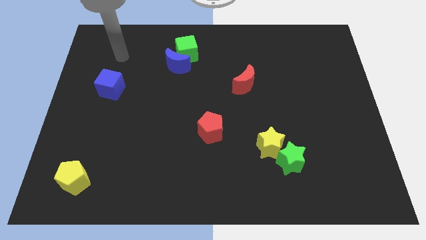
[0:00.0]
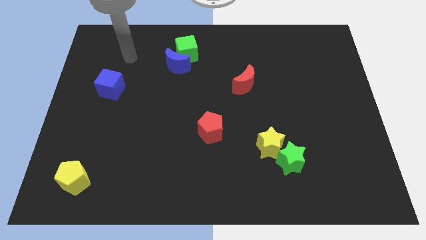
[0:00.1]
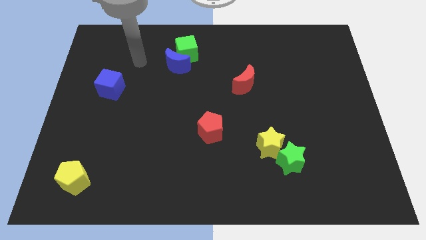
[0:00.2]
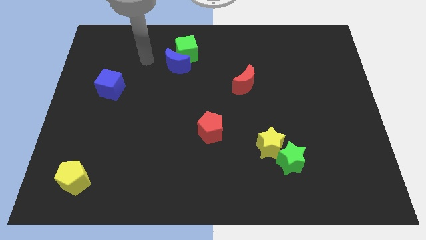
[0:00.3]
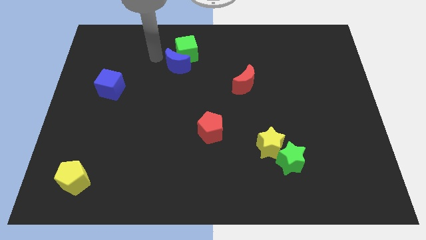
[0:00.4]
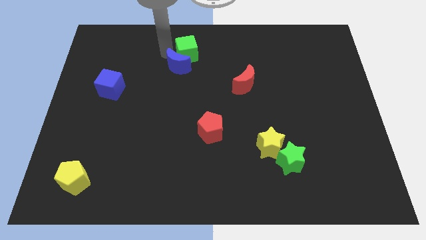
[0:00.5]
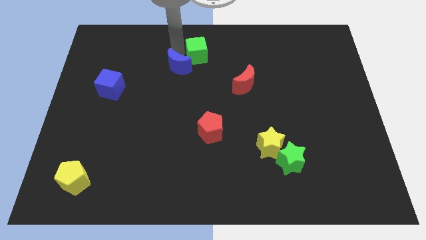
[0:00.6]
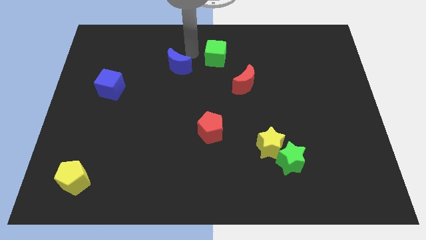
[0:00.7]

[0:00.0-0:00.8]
pull the blue moon apart from the green cube

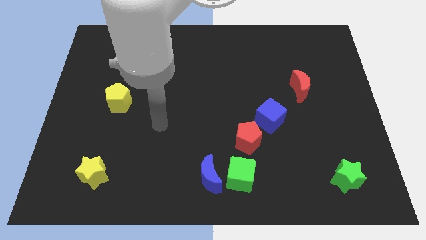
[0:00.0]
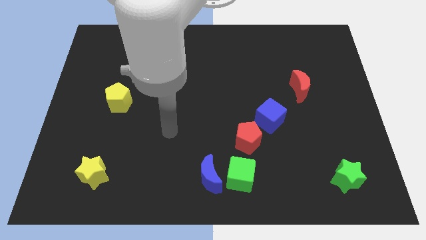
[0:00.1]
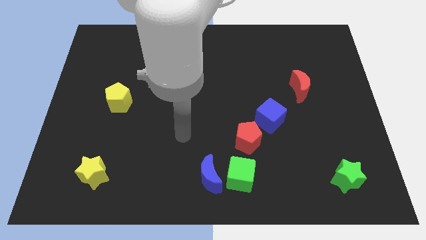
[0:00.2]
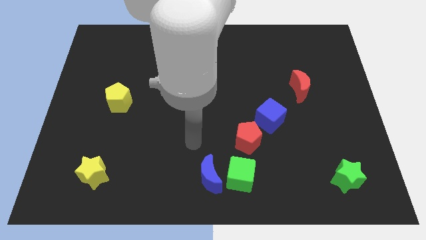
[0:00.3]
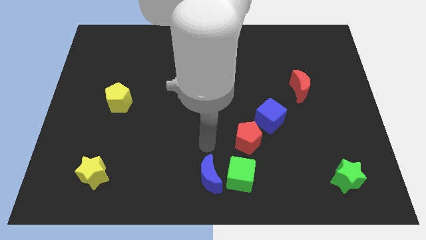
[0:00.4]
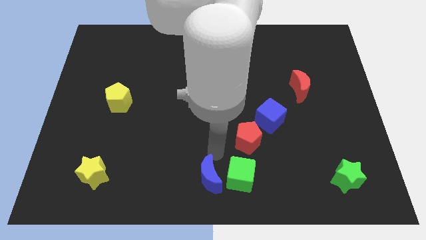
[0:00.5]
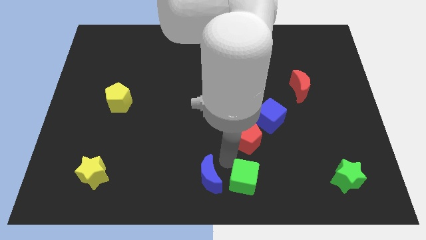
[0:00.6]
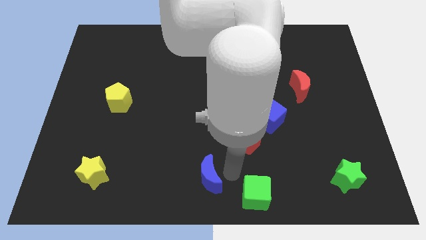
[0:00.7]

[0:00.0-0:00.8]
separate the blue moon from the green cube

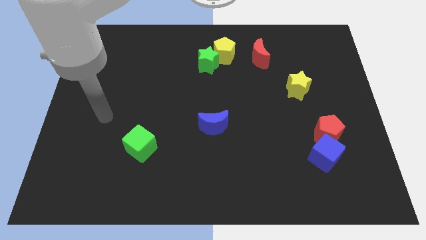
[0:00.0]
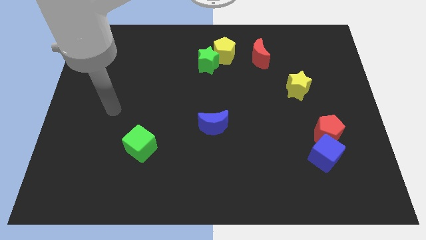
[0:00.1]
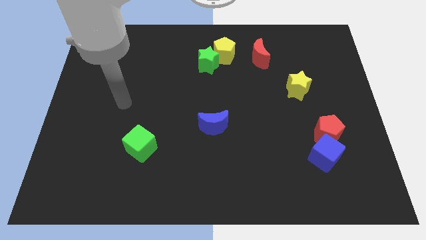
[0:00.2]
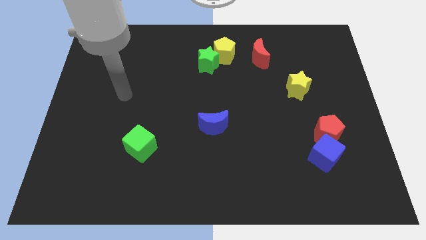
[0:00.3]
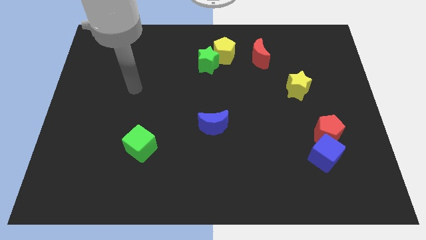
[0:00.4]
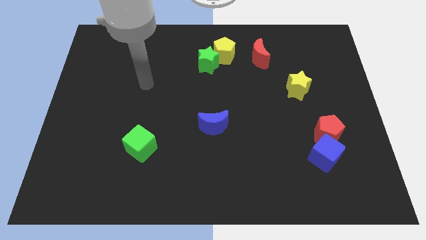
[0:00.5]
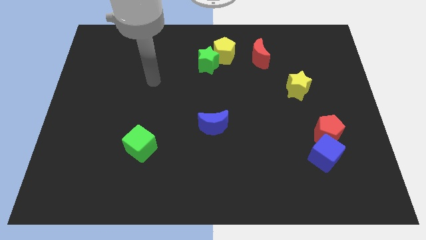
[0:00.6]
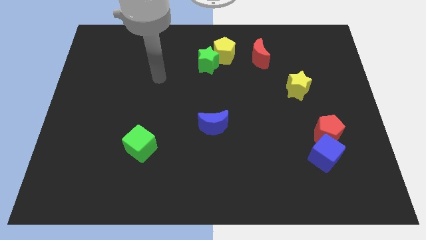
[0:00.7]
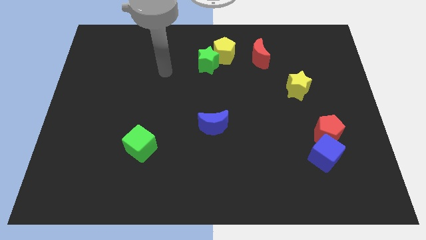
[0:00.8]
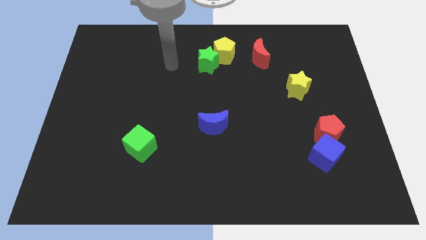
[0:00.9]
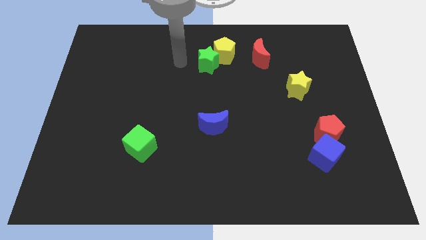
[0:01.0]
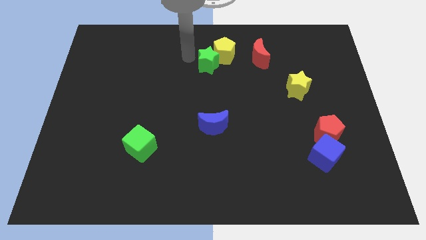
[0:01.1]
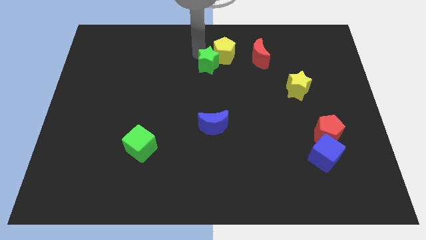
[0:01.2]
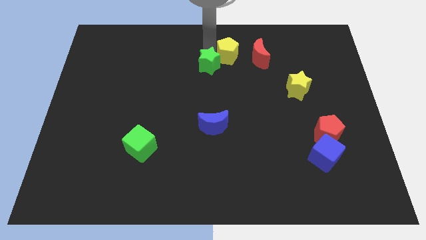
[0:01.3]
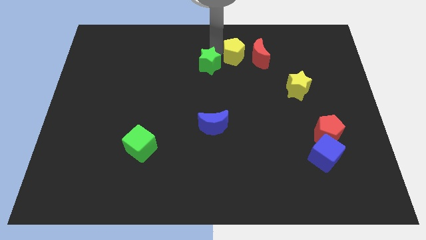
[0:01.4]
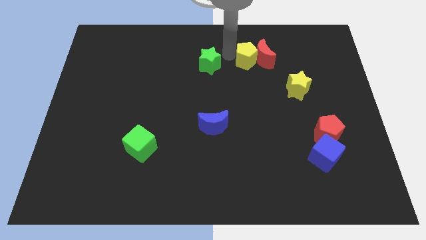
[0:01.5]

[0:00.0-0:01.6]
pull the green star apart from the yellow pentagon

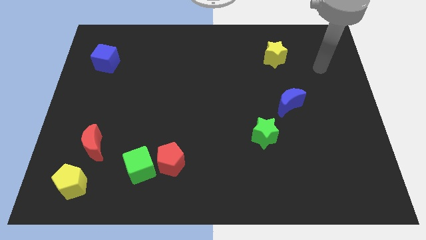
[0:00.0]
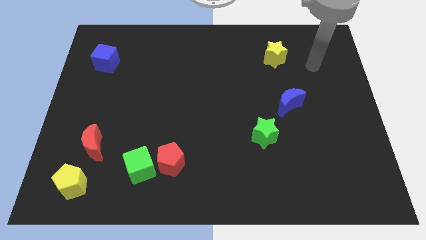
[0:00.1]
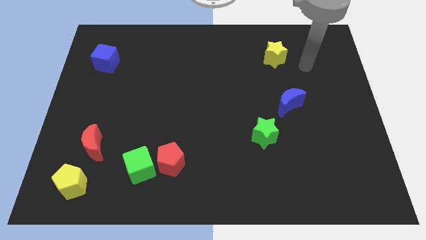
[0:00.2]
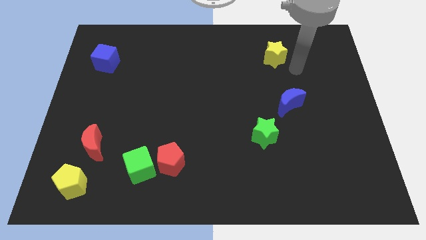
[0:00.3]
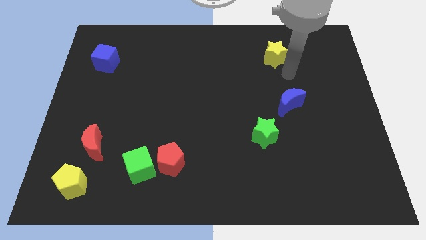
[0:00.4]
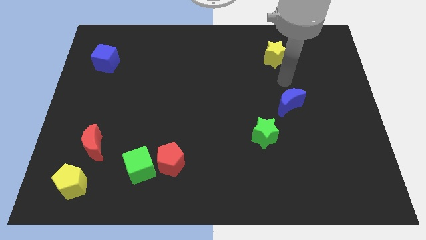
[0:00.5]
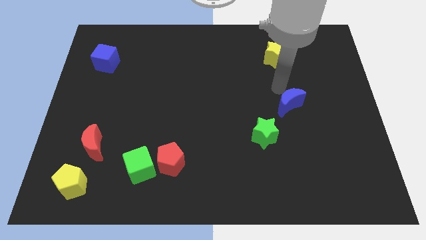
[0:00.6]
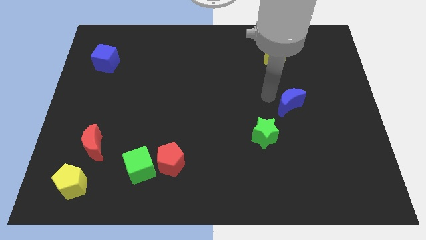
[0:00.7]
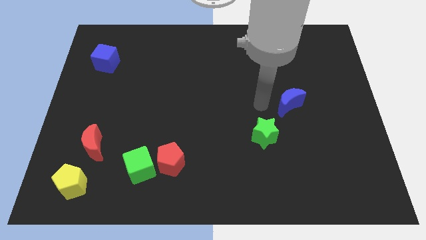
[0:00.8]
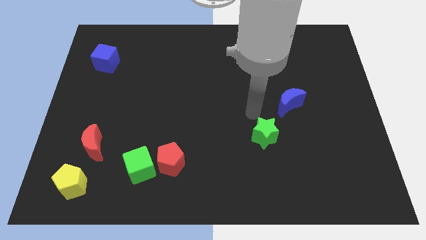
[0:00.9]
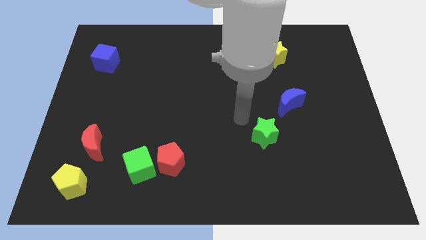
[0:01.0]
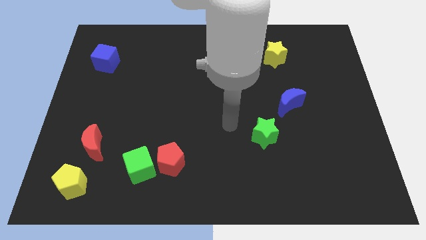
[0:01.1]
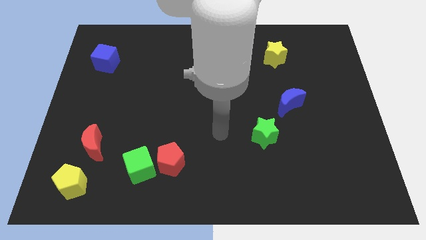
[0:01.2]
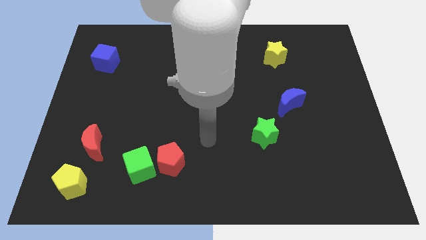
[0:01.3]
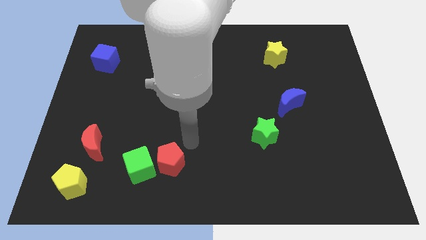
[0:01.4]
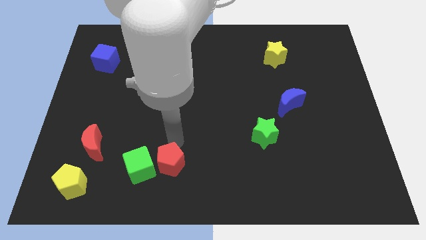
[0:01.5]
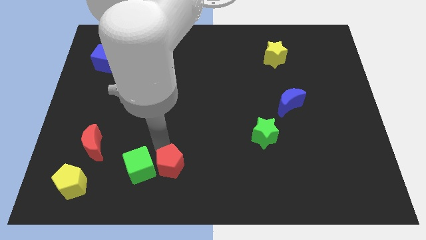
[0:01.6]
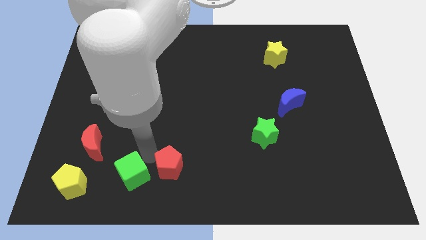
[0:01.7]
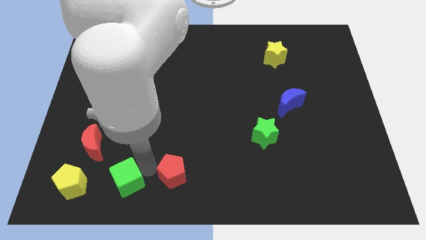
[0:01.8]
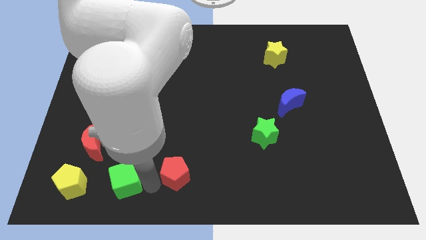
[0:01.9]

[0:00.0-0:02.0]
pull the red pentagon apart from the green cube

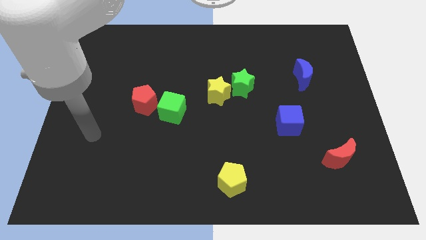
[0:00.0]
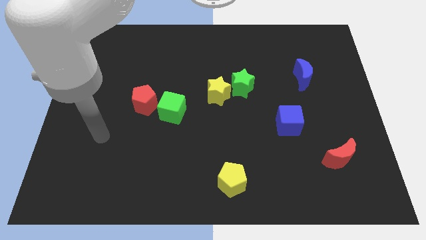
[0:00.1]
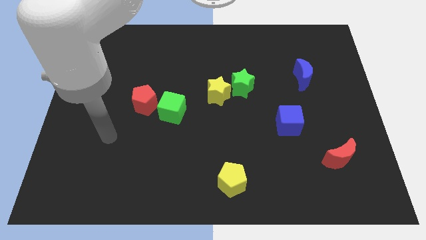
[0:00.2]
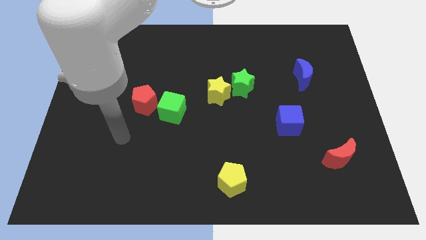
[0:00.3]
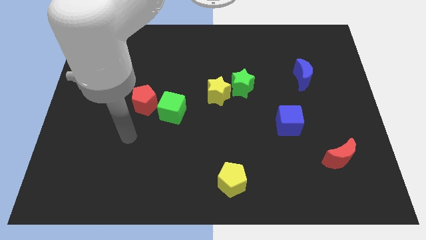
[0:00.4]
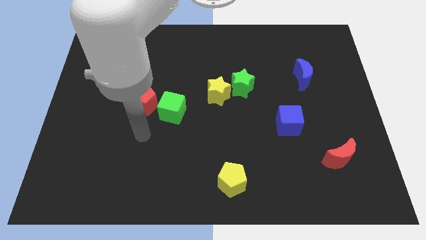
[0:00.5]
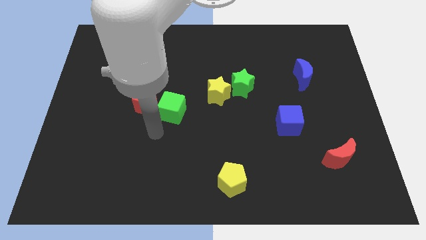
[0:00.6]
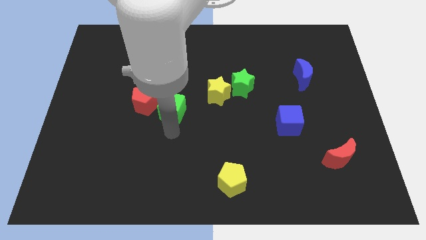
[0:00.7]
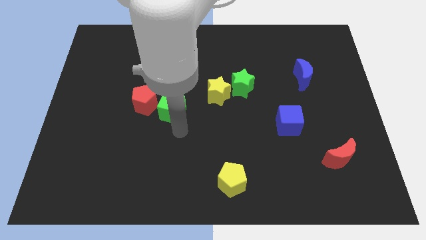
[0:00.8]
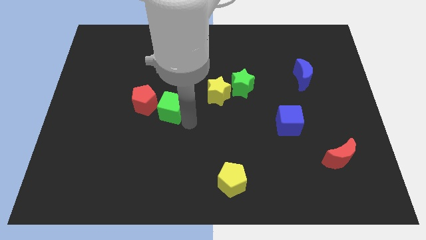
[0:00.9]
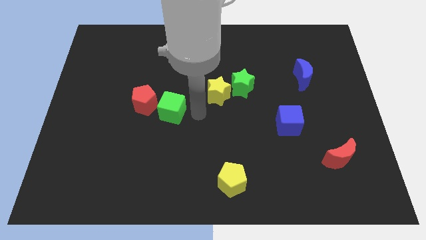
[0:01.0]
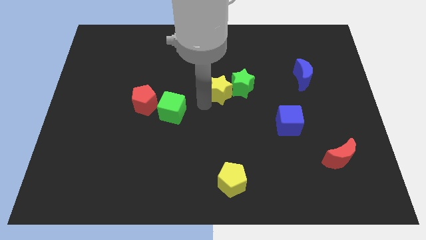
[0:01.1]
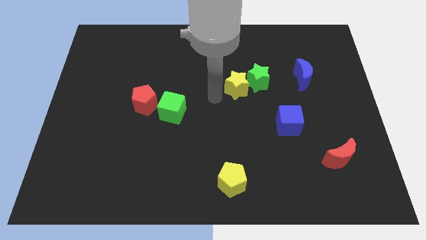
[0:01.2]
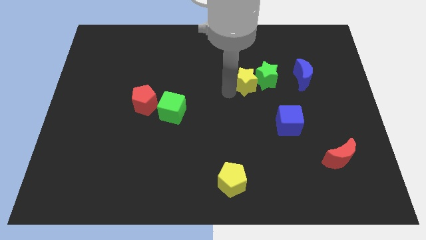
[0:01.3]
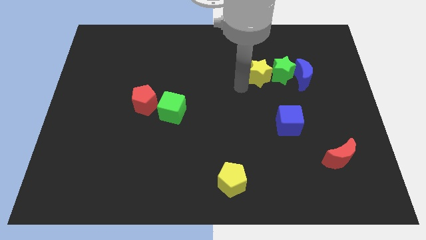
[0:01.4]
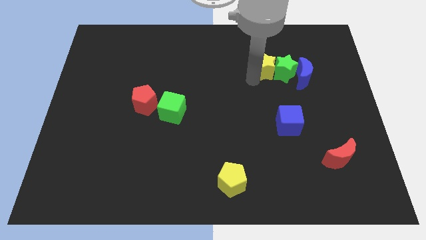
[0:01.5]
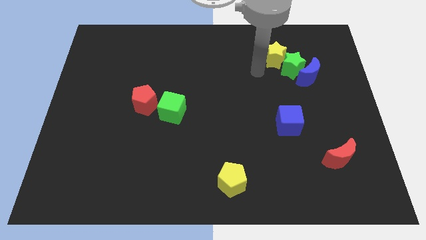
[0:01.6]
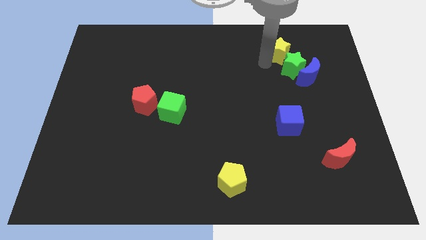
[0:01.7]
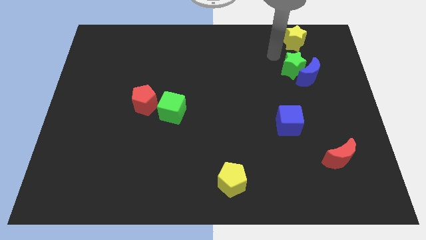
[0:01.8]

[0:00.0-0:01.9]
separate the green star from the yellow star

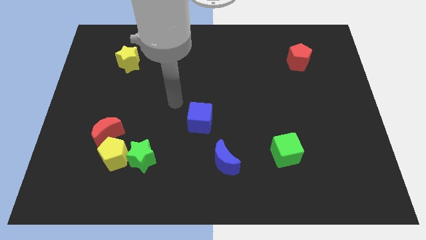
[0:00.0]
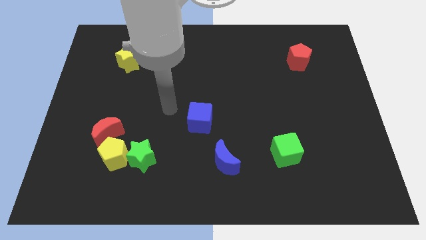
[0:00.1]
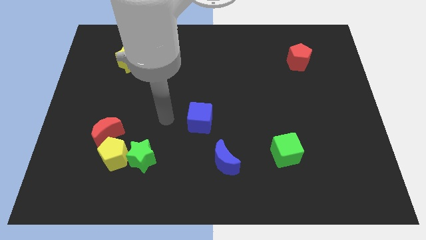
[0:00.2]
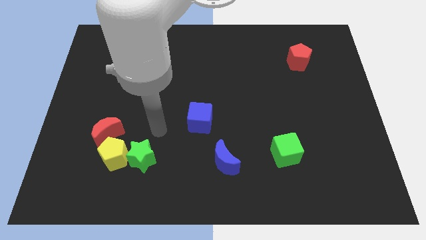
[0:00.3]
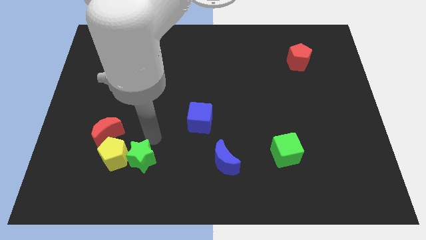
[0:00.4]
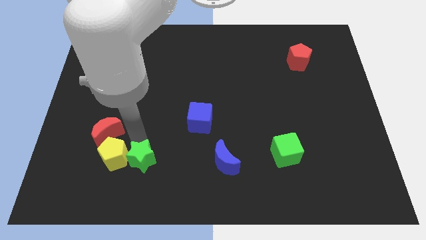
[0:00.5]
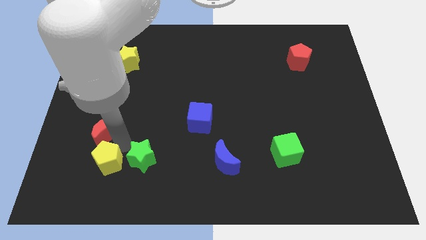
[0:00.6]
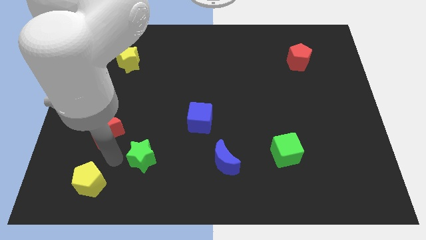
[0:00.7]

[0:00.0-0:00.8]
move the green star away from the yellow pentagon

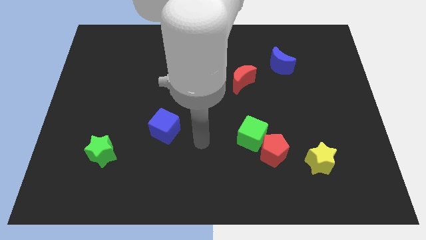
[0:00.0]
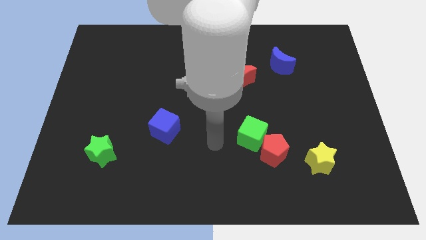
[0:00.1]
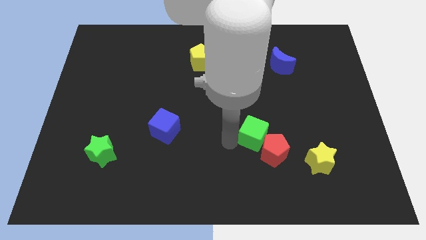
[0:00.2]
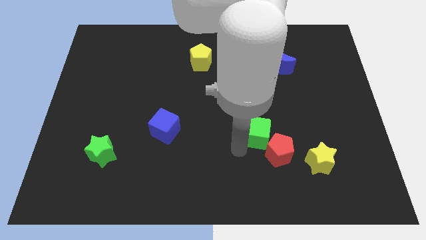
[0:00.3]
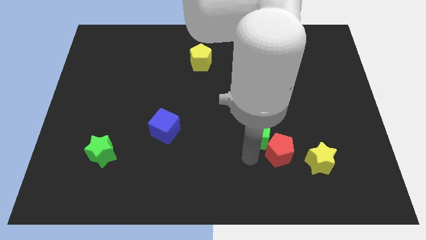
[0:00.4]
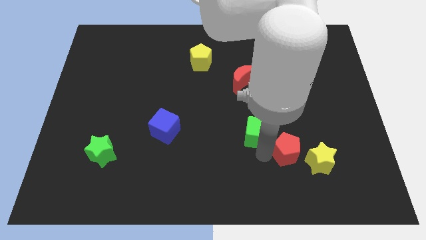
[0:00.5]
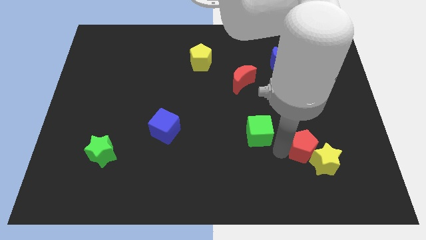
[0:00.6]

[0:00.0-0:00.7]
separate the green cube from the red pentagon

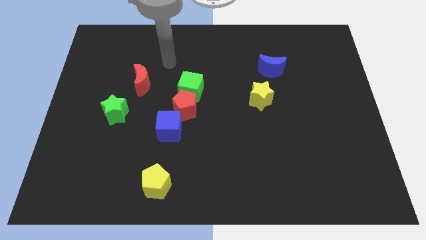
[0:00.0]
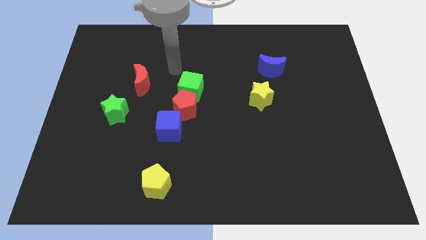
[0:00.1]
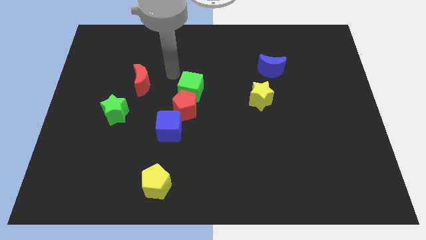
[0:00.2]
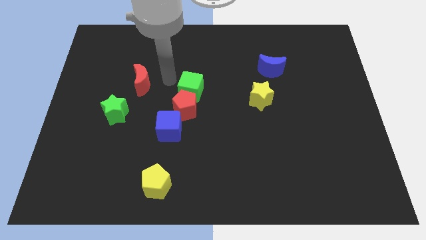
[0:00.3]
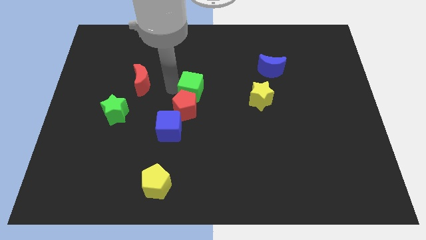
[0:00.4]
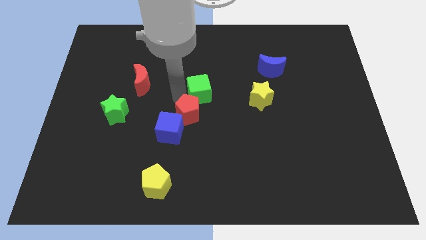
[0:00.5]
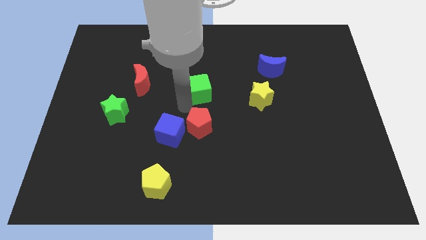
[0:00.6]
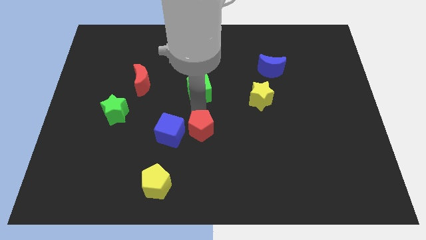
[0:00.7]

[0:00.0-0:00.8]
move the green cube away from the red pentagon
